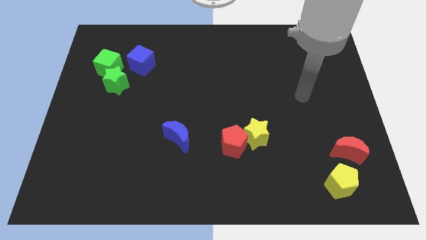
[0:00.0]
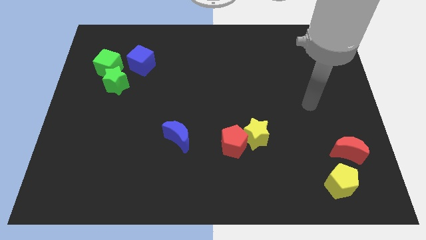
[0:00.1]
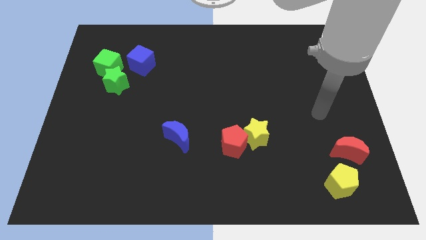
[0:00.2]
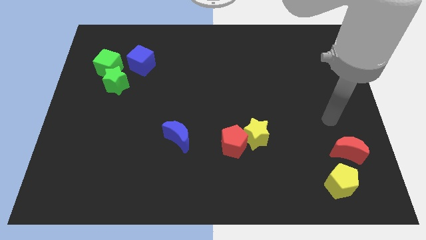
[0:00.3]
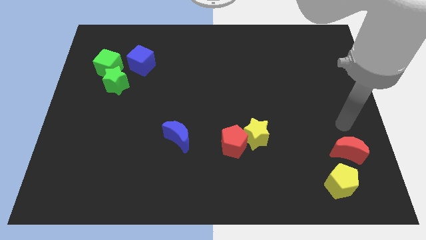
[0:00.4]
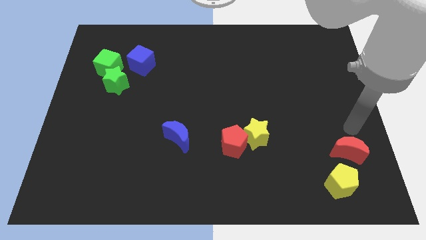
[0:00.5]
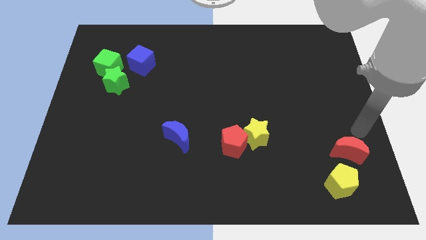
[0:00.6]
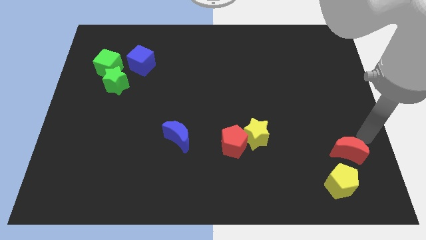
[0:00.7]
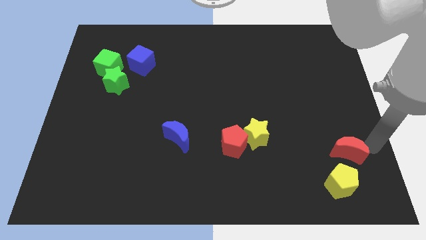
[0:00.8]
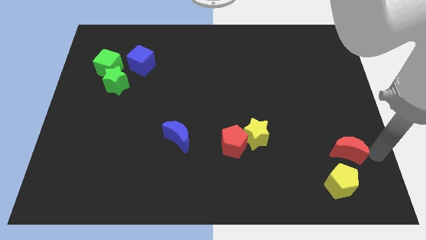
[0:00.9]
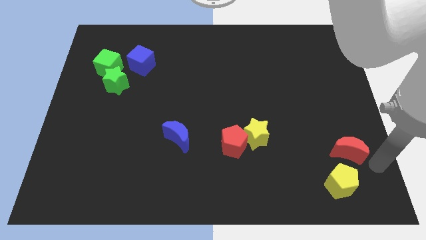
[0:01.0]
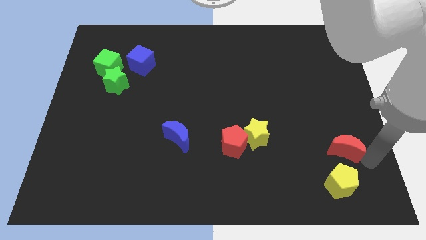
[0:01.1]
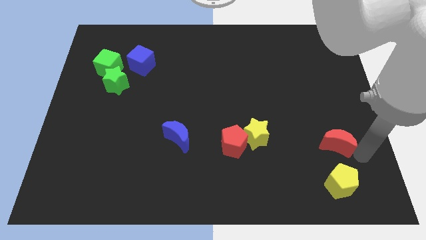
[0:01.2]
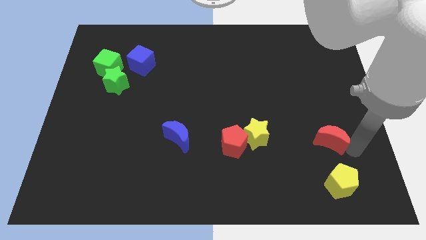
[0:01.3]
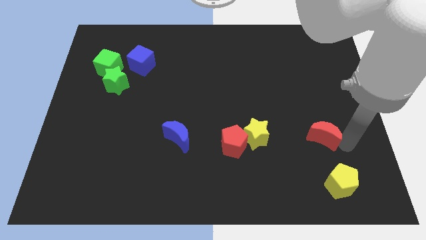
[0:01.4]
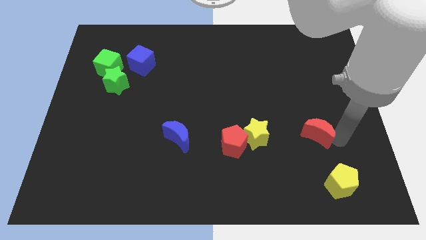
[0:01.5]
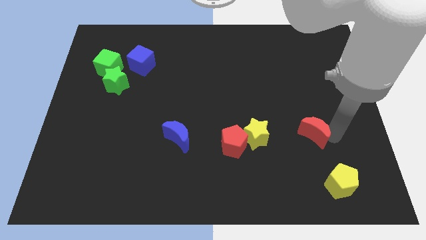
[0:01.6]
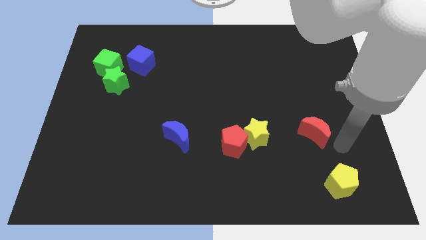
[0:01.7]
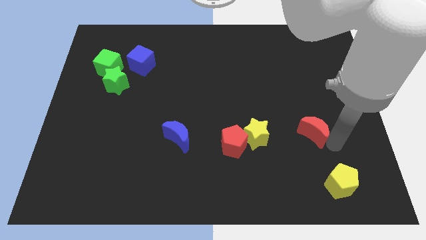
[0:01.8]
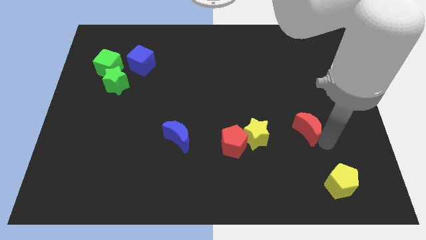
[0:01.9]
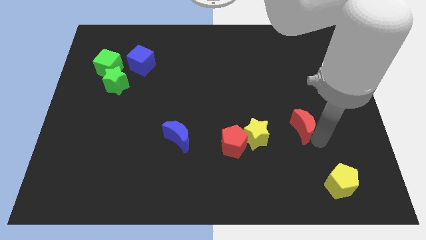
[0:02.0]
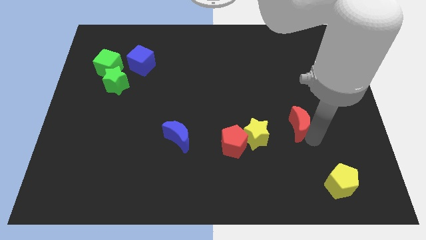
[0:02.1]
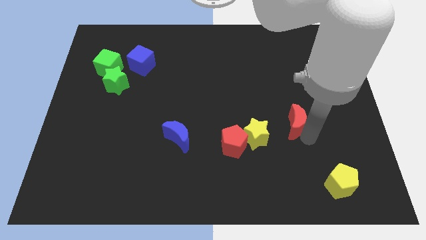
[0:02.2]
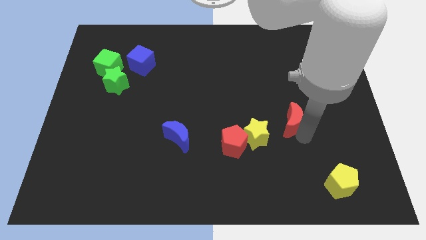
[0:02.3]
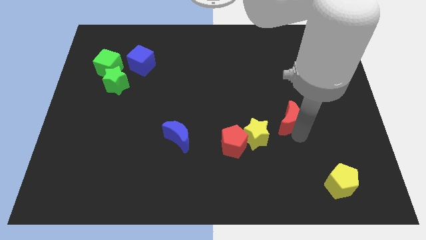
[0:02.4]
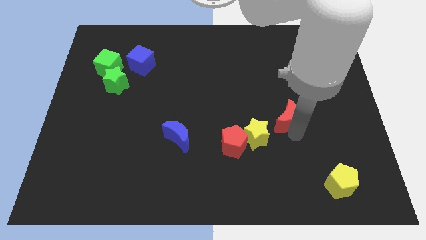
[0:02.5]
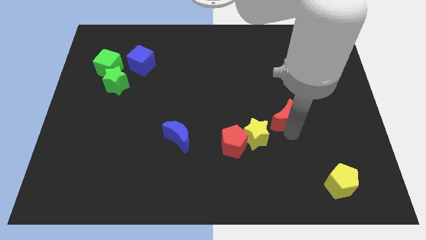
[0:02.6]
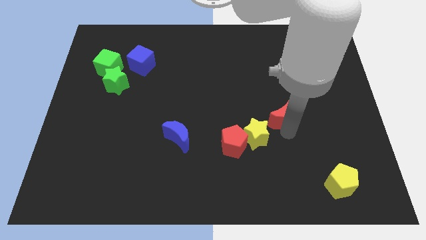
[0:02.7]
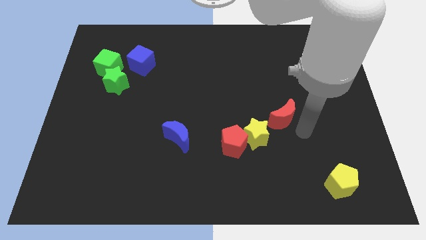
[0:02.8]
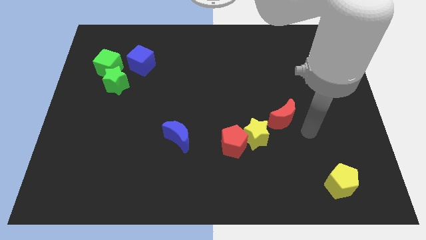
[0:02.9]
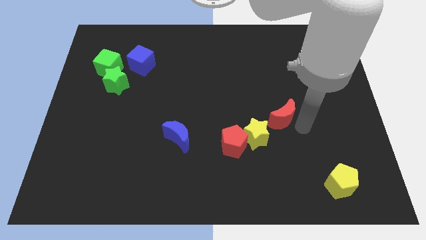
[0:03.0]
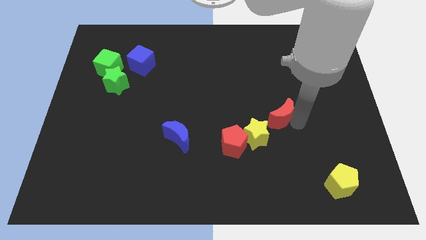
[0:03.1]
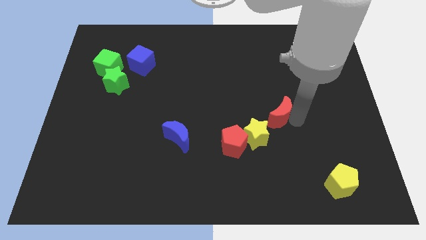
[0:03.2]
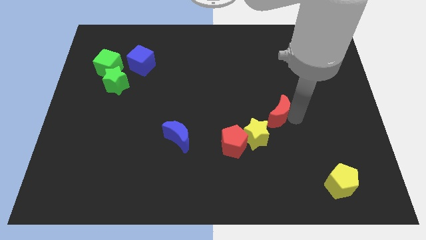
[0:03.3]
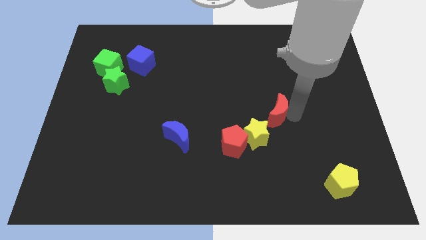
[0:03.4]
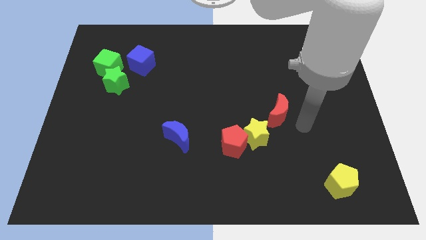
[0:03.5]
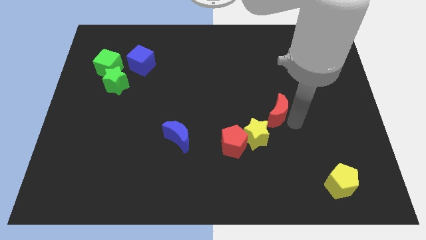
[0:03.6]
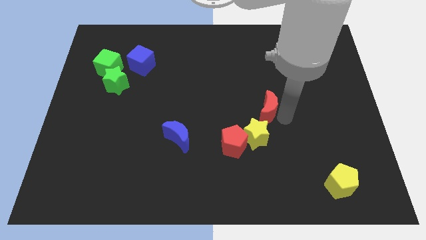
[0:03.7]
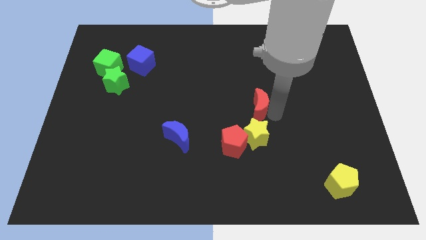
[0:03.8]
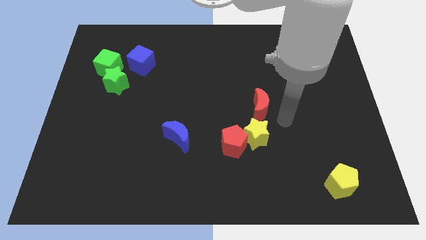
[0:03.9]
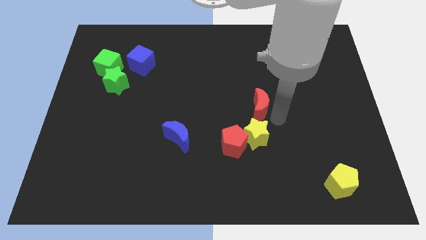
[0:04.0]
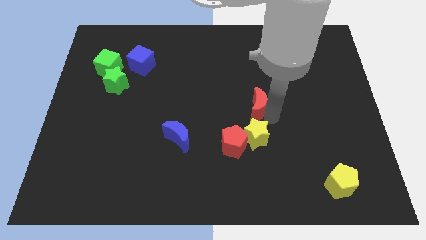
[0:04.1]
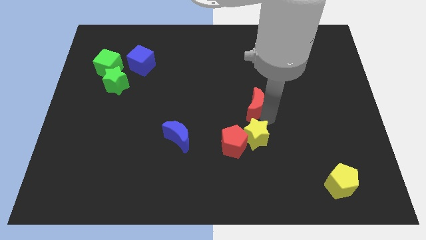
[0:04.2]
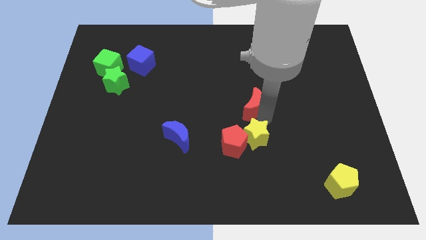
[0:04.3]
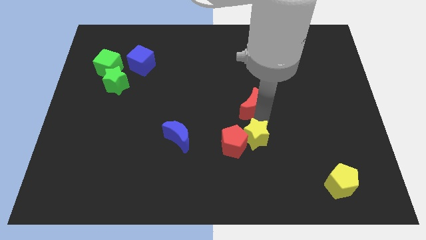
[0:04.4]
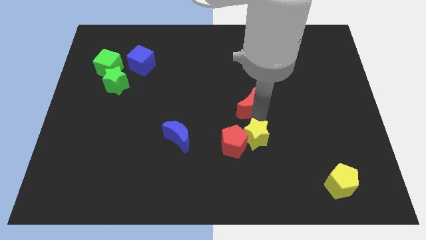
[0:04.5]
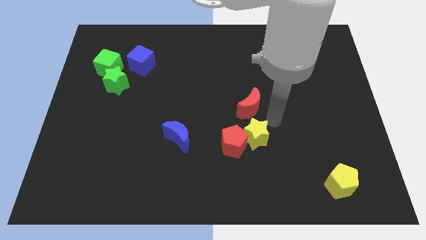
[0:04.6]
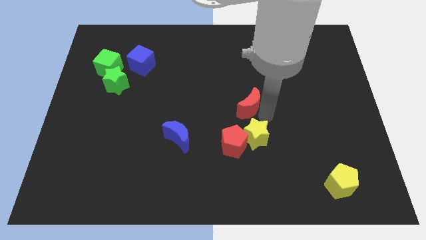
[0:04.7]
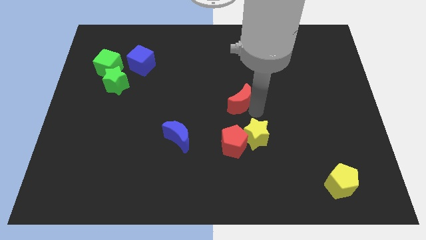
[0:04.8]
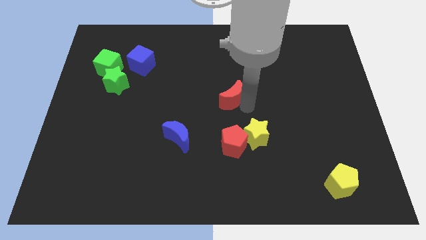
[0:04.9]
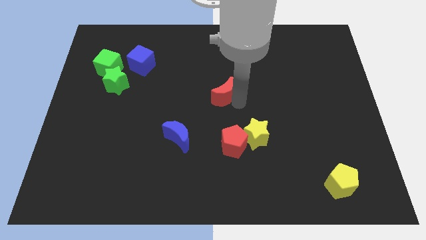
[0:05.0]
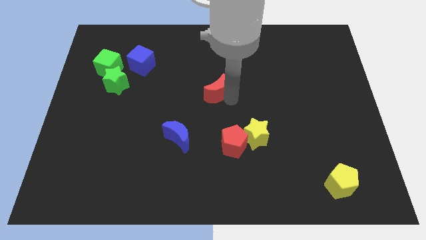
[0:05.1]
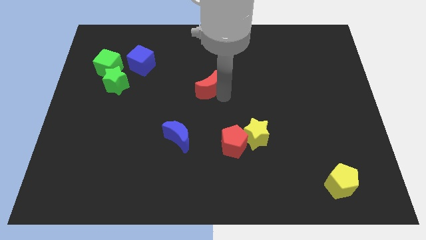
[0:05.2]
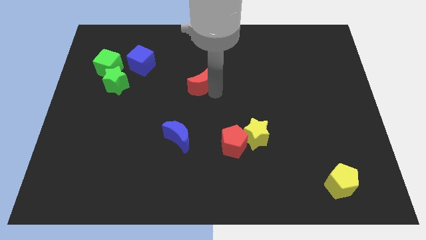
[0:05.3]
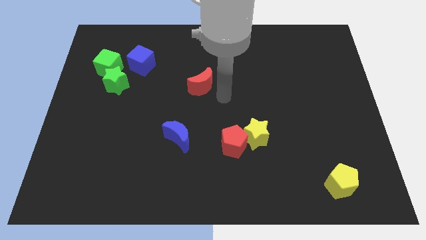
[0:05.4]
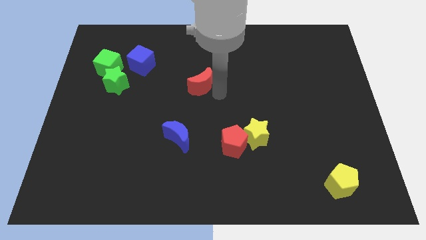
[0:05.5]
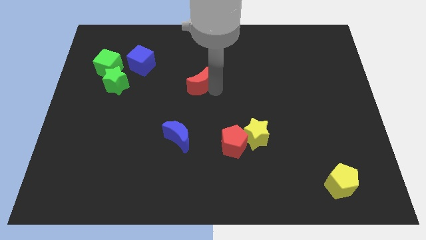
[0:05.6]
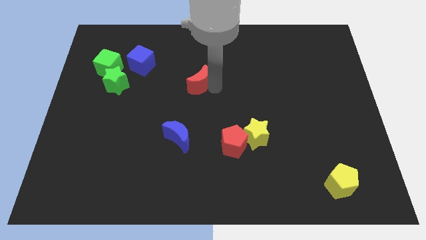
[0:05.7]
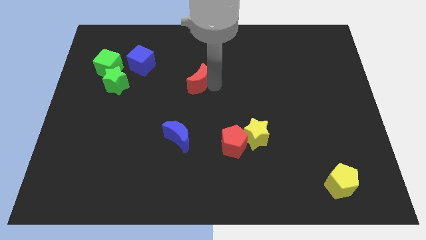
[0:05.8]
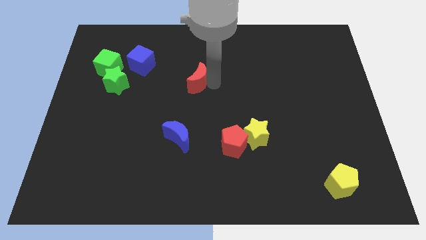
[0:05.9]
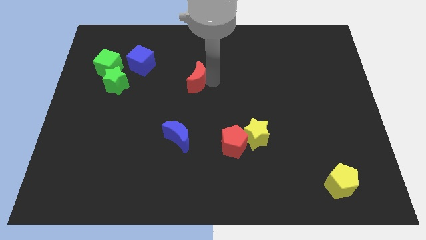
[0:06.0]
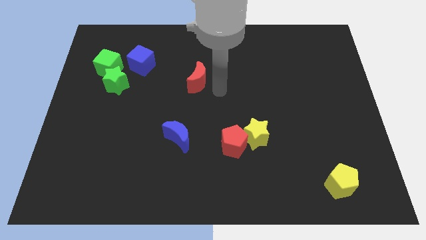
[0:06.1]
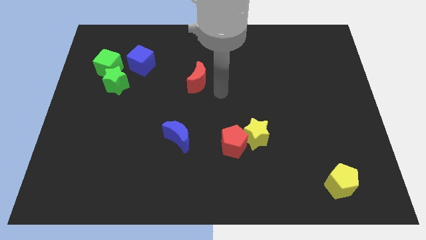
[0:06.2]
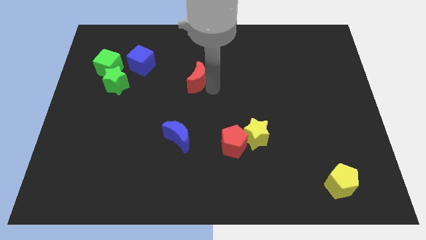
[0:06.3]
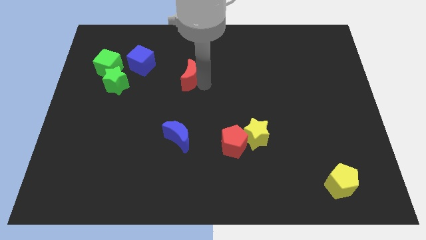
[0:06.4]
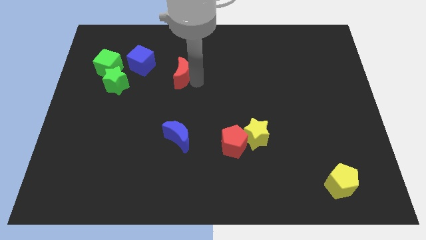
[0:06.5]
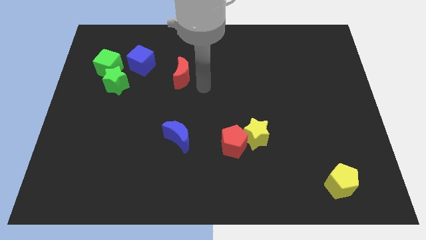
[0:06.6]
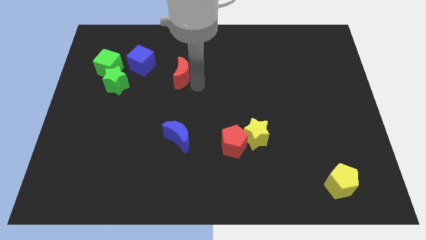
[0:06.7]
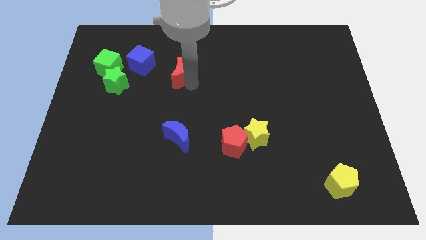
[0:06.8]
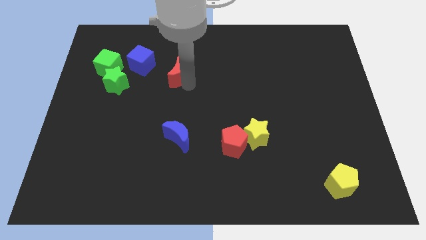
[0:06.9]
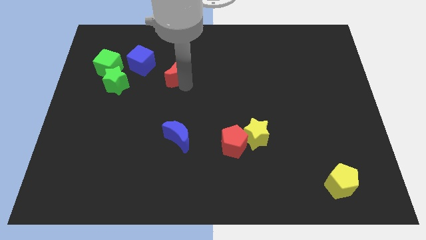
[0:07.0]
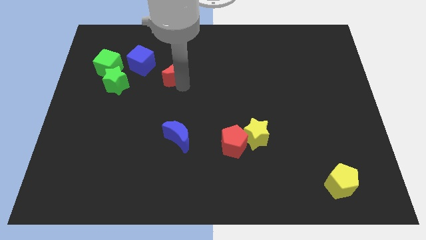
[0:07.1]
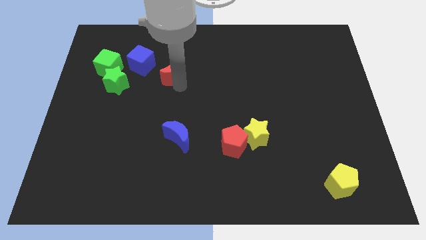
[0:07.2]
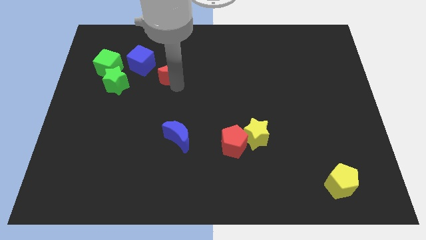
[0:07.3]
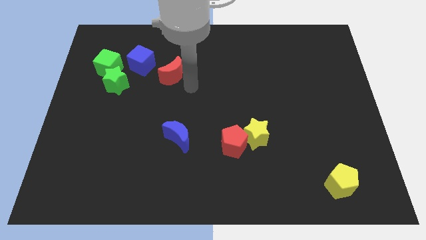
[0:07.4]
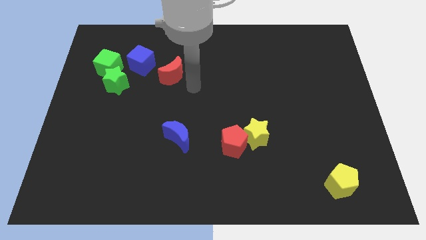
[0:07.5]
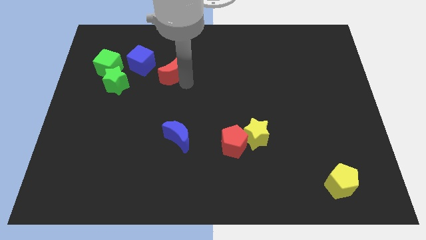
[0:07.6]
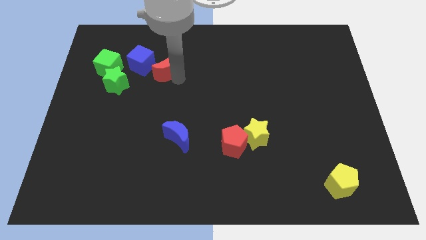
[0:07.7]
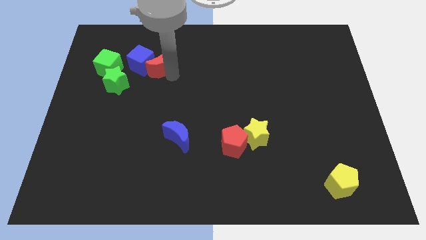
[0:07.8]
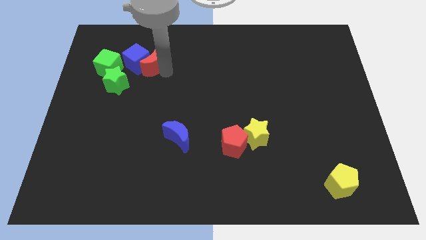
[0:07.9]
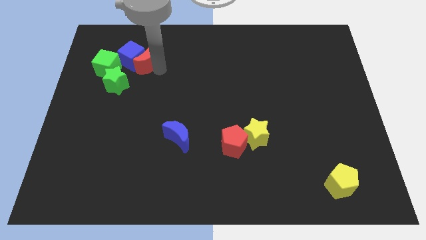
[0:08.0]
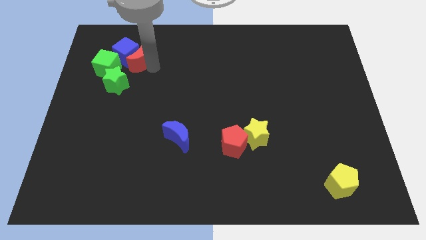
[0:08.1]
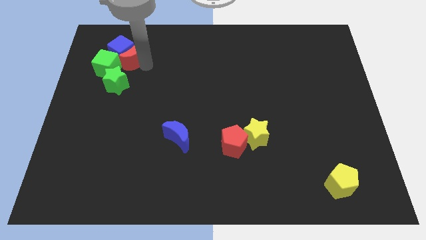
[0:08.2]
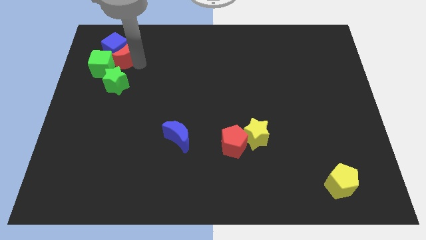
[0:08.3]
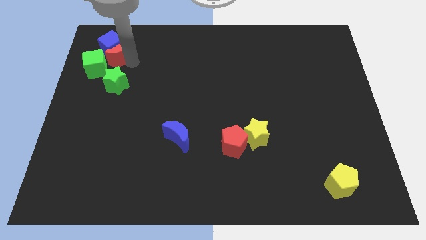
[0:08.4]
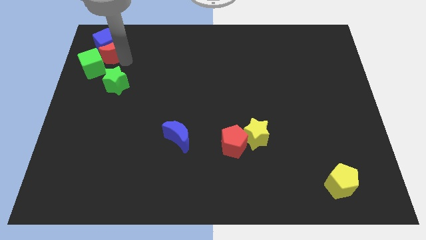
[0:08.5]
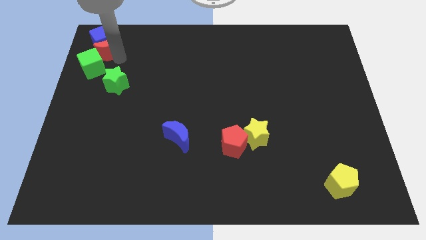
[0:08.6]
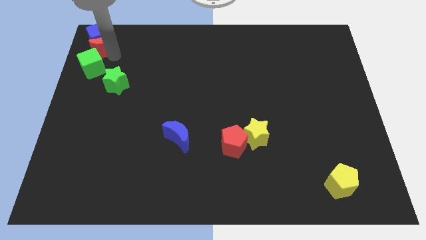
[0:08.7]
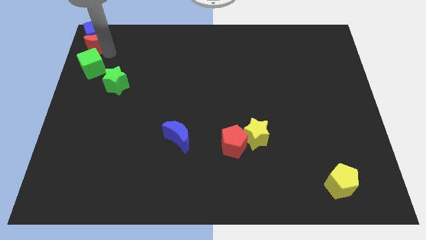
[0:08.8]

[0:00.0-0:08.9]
put the red moon to the top left corner
